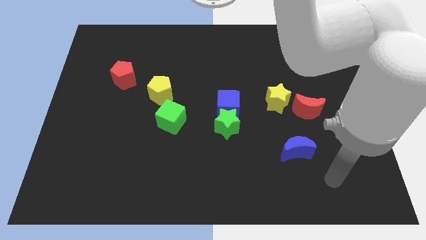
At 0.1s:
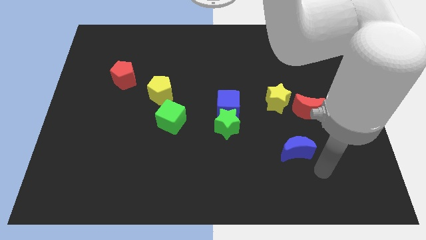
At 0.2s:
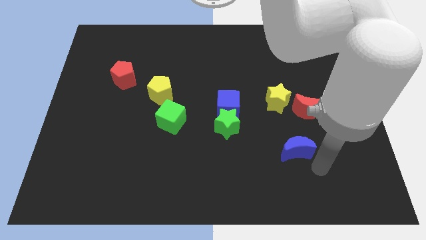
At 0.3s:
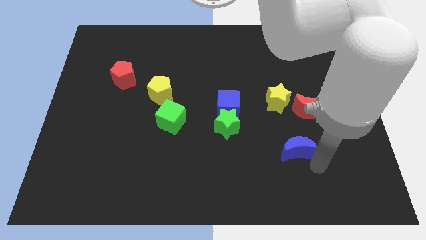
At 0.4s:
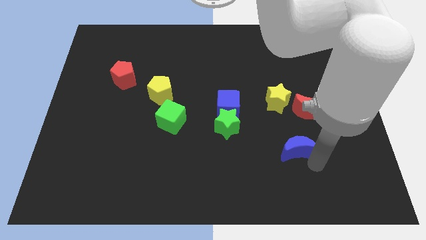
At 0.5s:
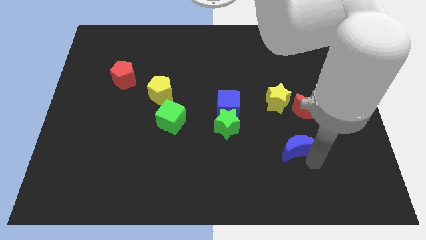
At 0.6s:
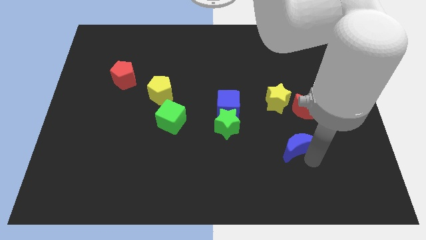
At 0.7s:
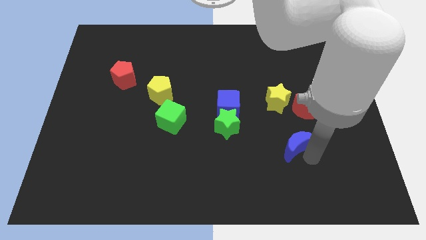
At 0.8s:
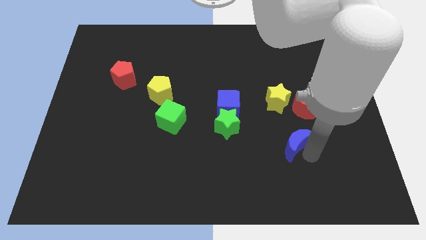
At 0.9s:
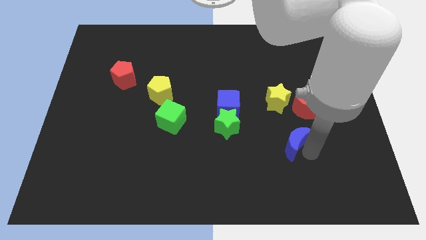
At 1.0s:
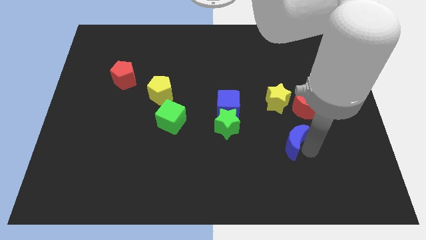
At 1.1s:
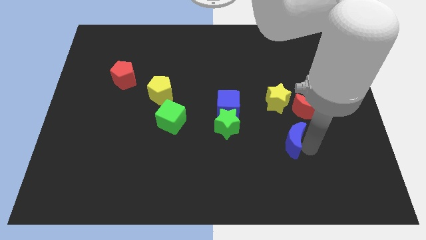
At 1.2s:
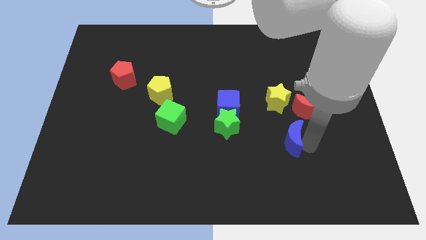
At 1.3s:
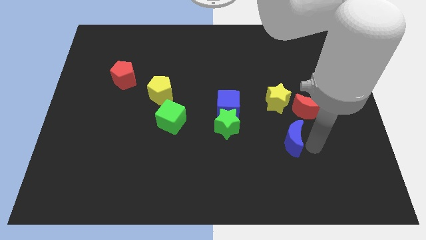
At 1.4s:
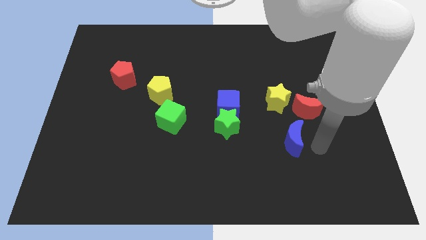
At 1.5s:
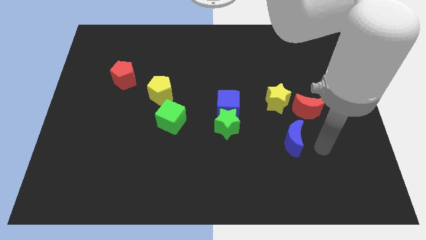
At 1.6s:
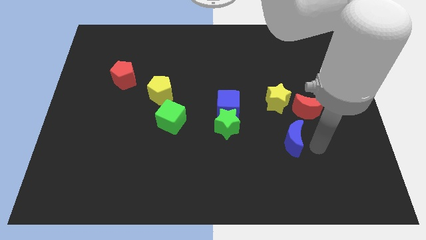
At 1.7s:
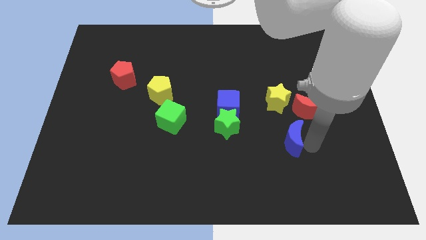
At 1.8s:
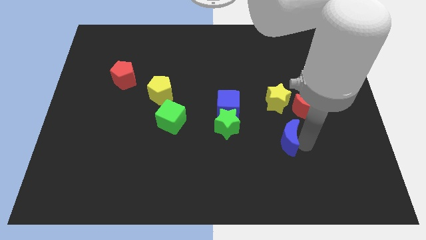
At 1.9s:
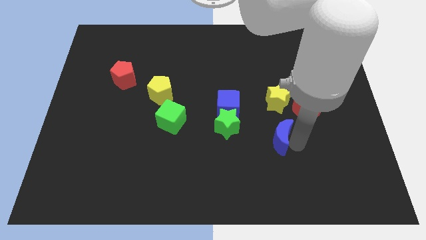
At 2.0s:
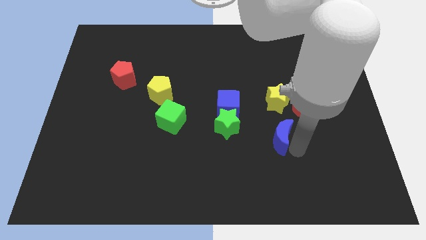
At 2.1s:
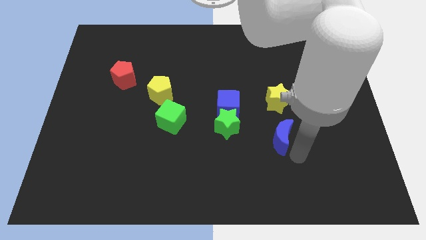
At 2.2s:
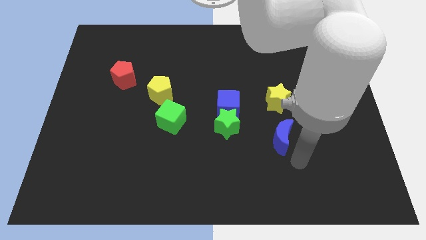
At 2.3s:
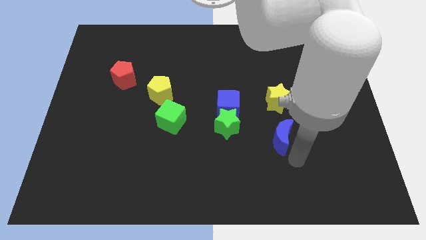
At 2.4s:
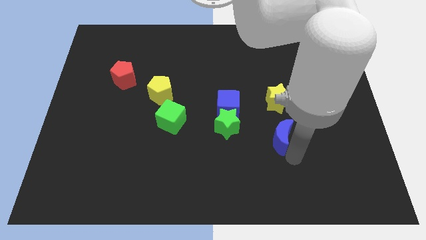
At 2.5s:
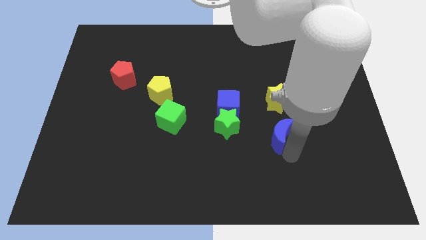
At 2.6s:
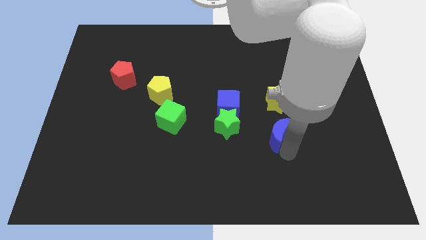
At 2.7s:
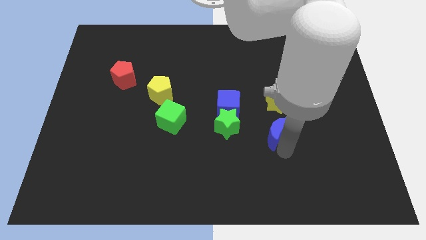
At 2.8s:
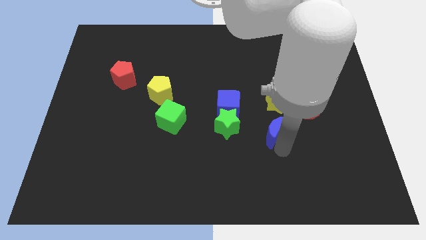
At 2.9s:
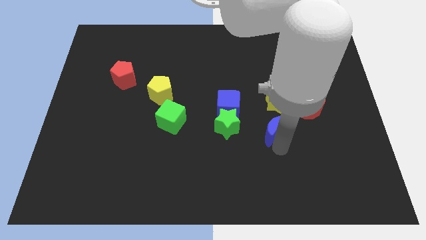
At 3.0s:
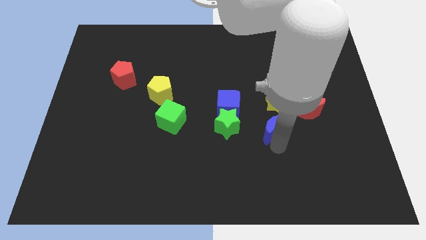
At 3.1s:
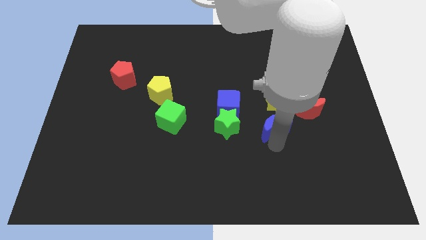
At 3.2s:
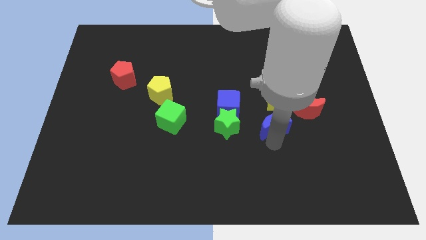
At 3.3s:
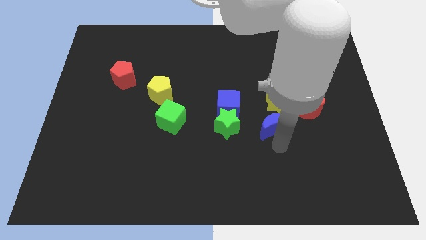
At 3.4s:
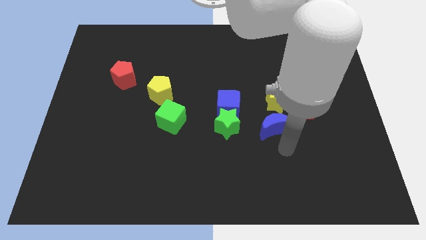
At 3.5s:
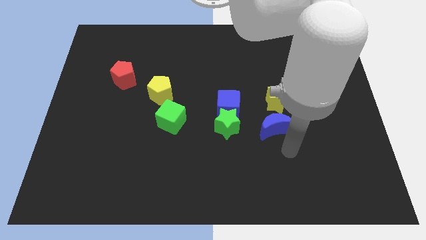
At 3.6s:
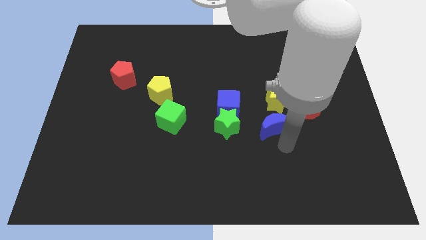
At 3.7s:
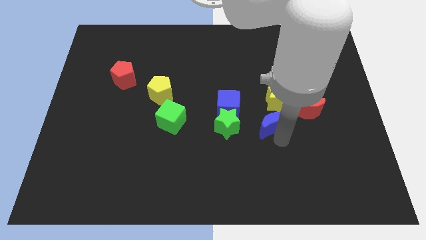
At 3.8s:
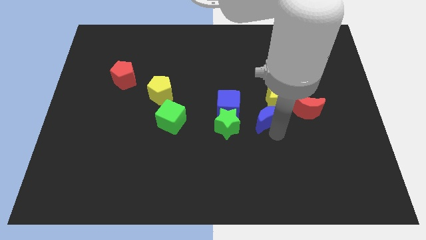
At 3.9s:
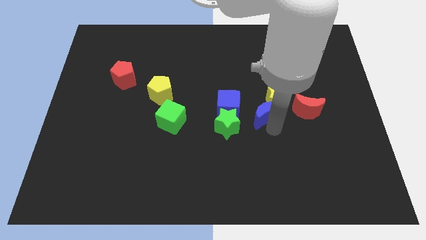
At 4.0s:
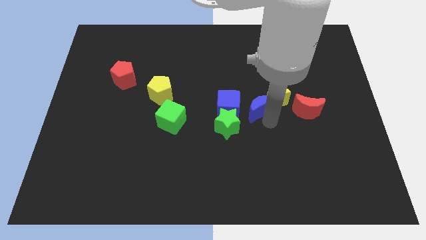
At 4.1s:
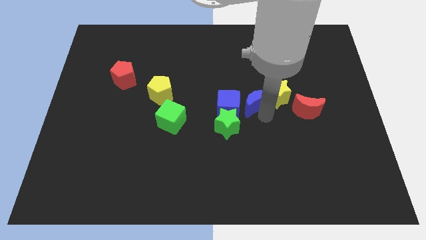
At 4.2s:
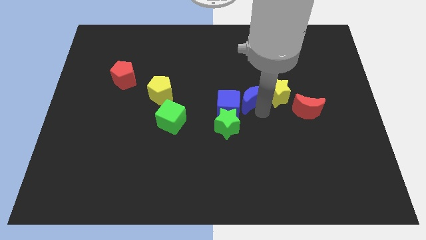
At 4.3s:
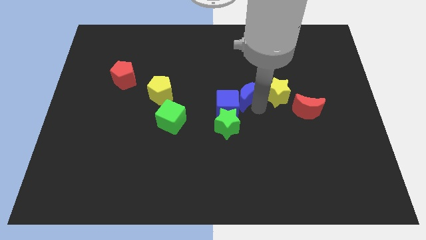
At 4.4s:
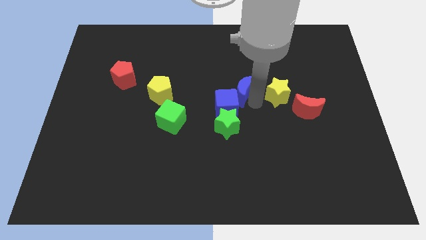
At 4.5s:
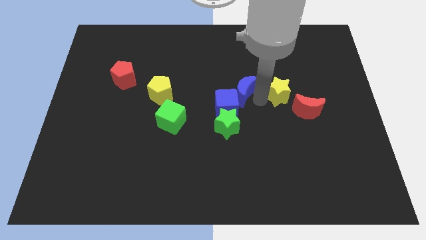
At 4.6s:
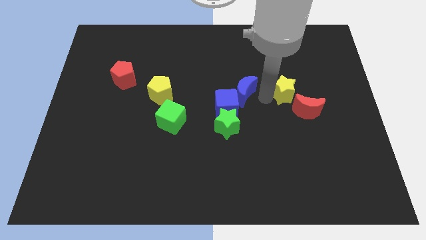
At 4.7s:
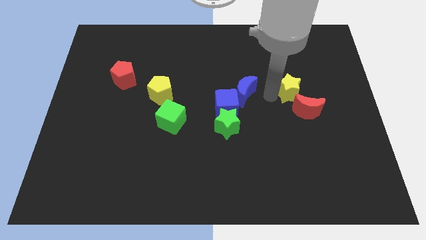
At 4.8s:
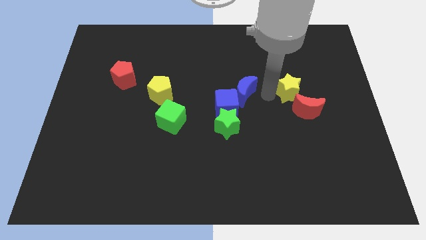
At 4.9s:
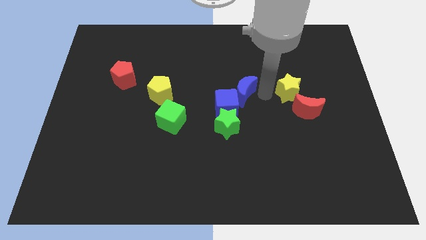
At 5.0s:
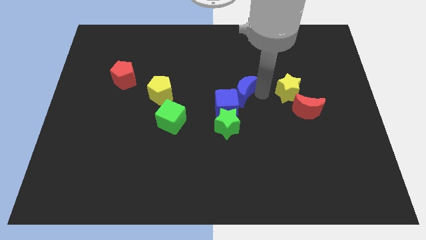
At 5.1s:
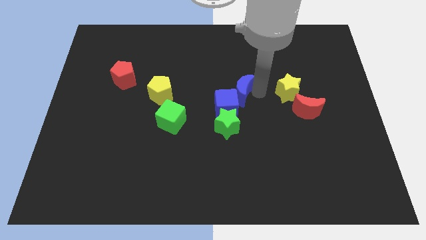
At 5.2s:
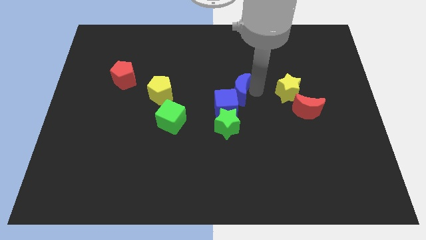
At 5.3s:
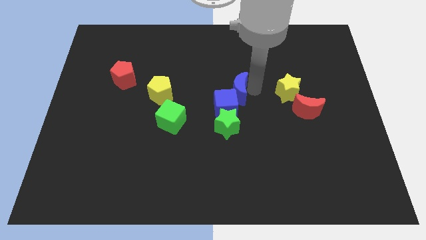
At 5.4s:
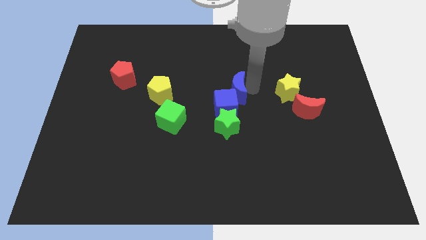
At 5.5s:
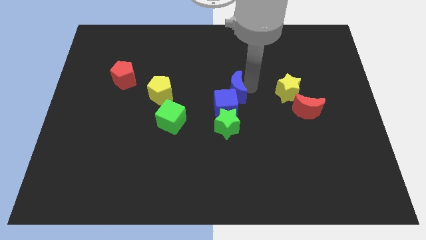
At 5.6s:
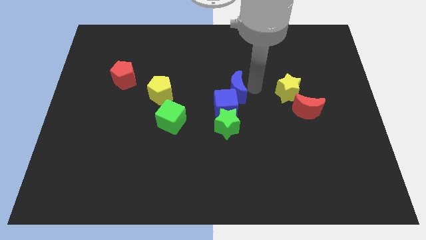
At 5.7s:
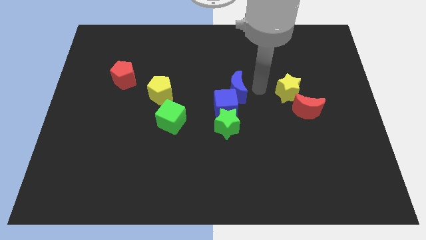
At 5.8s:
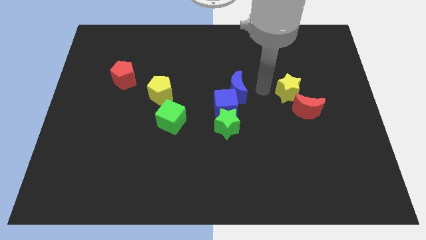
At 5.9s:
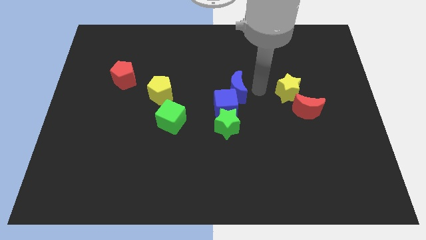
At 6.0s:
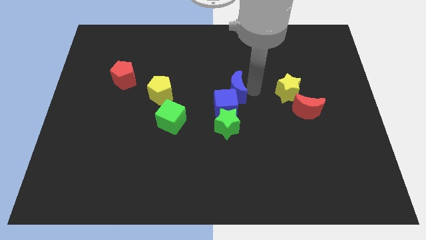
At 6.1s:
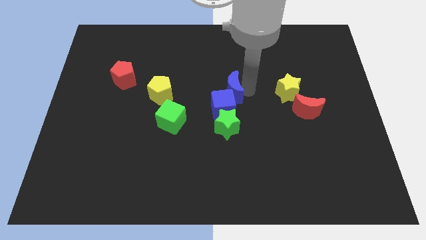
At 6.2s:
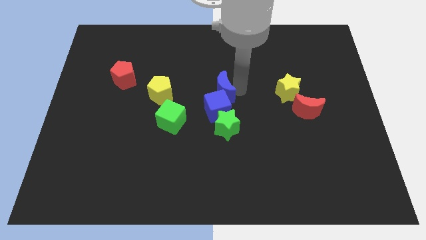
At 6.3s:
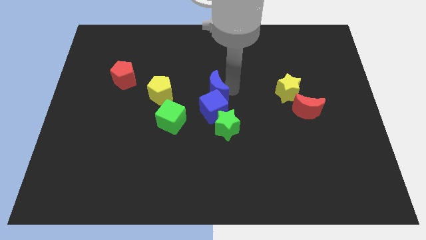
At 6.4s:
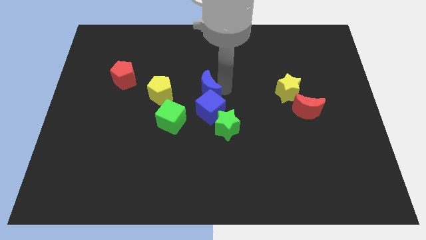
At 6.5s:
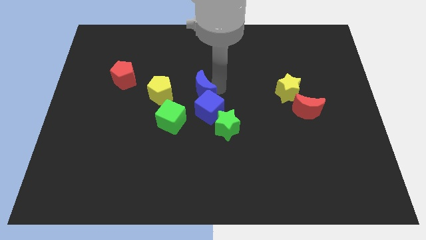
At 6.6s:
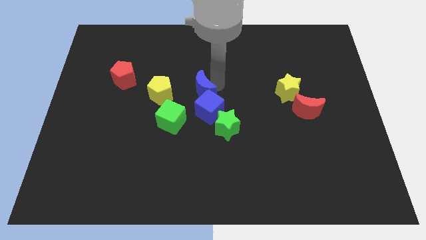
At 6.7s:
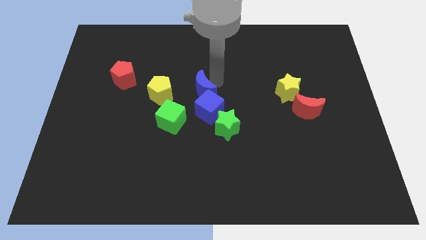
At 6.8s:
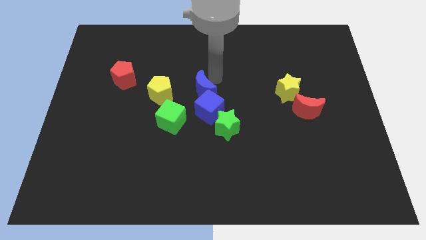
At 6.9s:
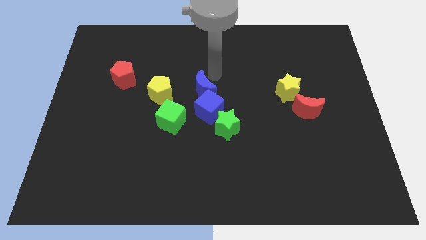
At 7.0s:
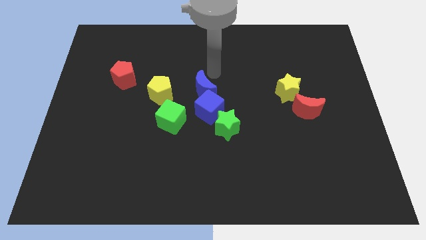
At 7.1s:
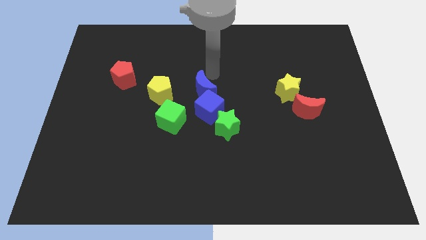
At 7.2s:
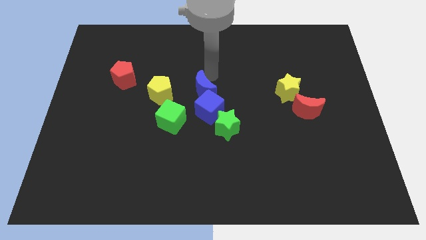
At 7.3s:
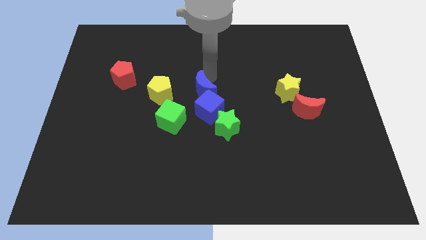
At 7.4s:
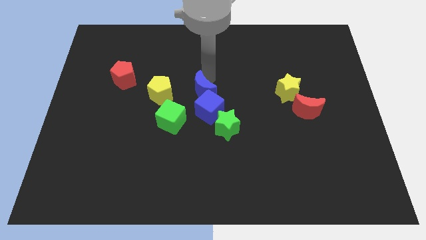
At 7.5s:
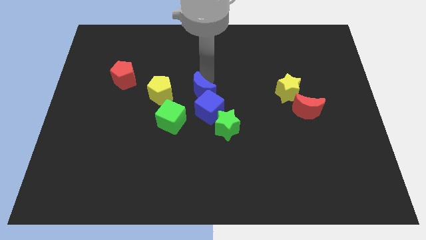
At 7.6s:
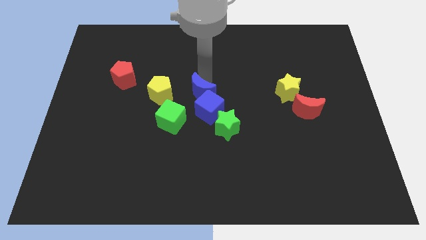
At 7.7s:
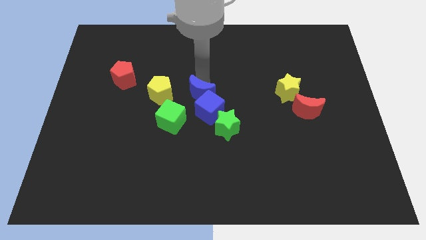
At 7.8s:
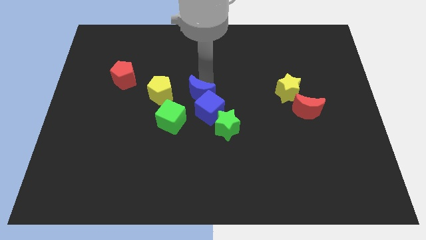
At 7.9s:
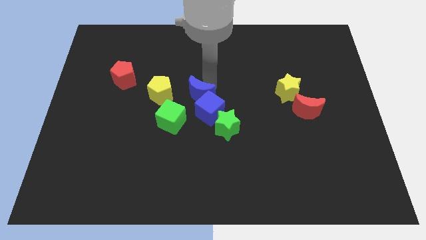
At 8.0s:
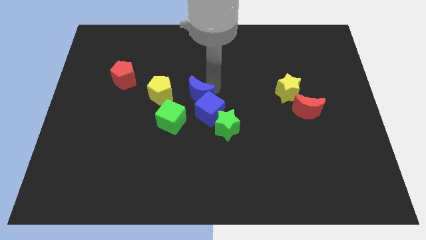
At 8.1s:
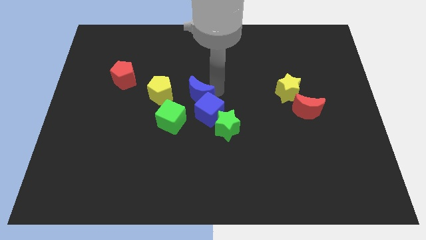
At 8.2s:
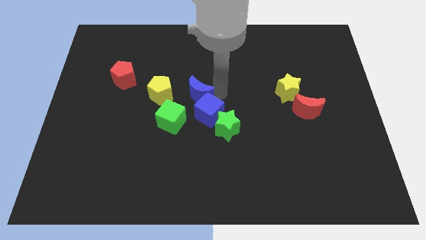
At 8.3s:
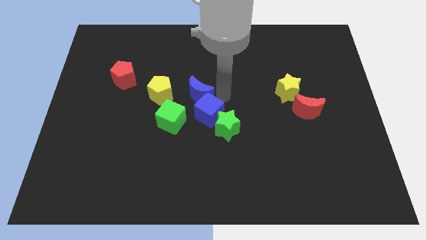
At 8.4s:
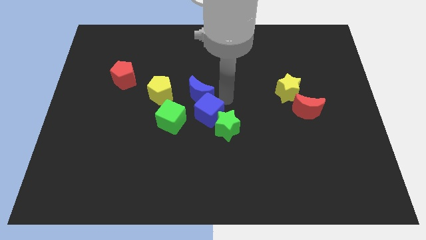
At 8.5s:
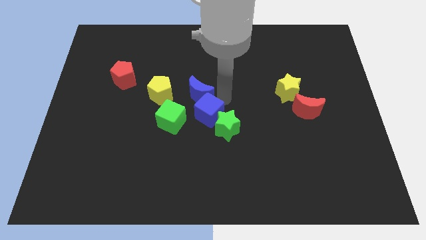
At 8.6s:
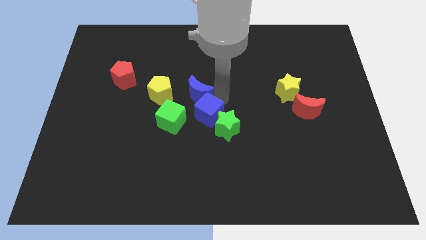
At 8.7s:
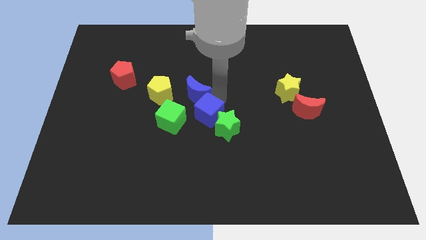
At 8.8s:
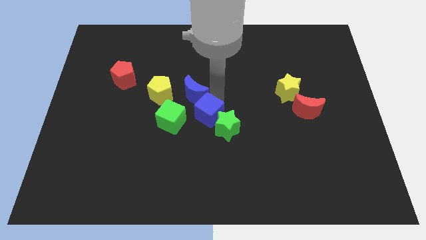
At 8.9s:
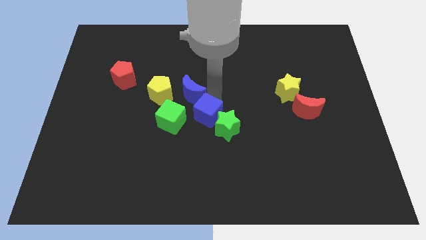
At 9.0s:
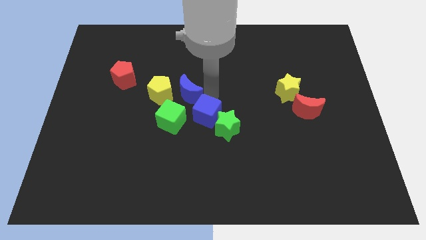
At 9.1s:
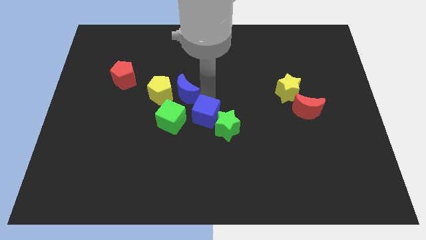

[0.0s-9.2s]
put the blue moon towards the yellow pentagon
